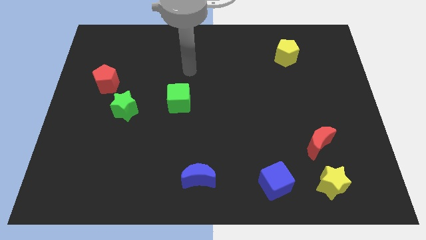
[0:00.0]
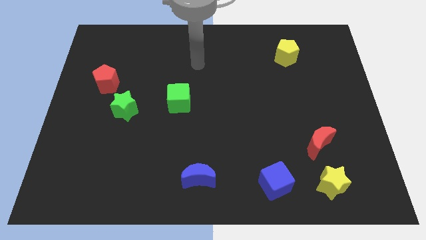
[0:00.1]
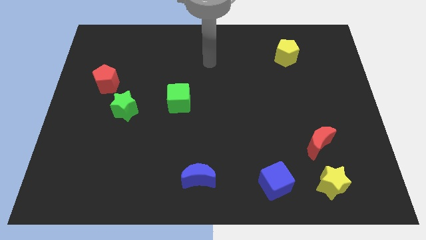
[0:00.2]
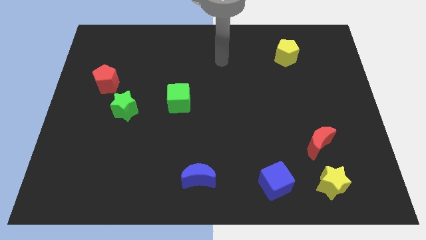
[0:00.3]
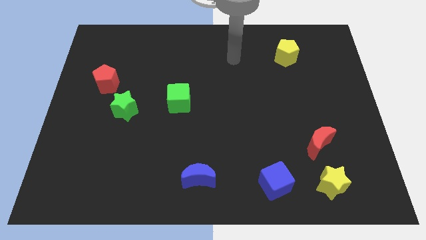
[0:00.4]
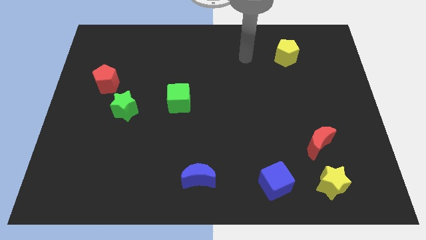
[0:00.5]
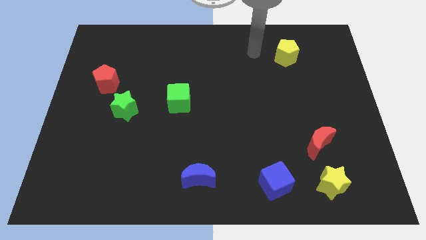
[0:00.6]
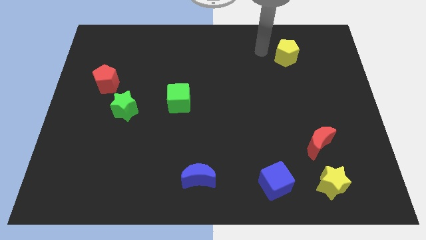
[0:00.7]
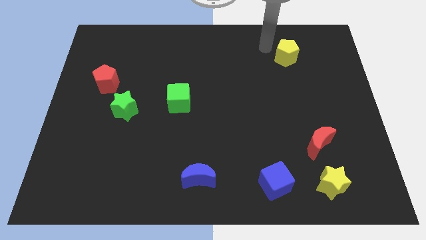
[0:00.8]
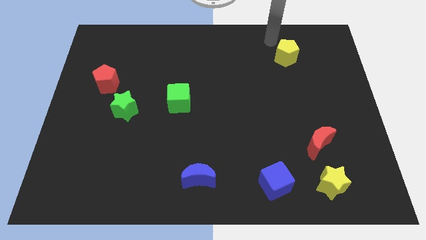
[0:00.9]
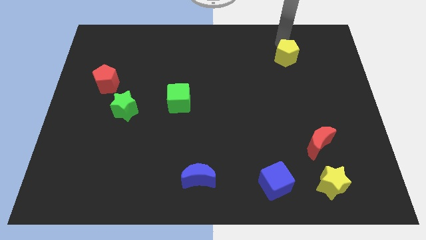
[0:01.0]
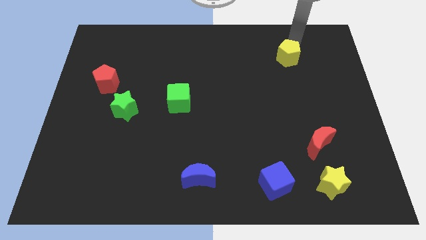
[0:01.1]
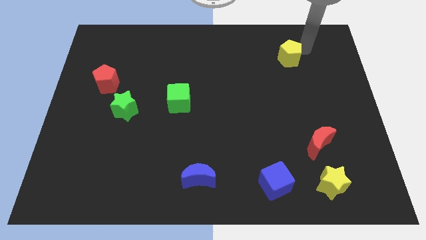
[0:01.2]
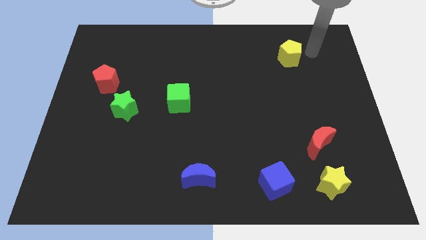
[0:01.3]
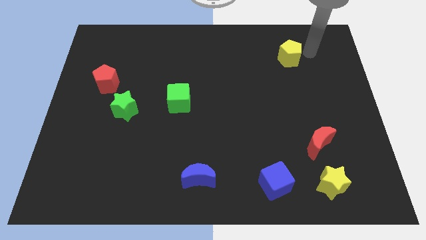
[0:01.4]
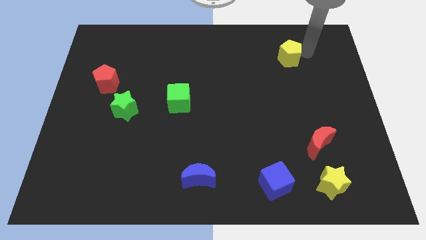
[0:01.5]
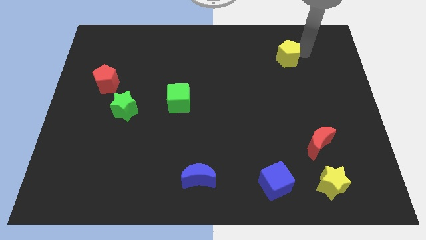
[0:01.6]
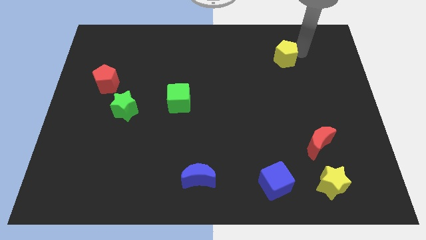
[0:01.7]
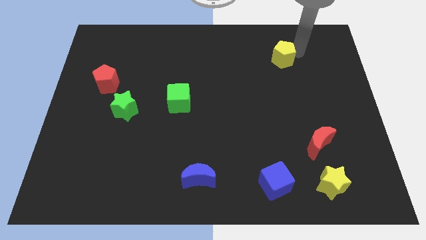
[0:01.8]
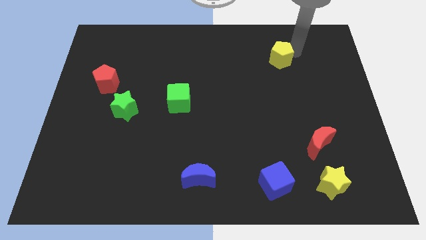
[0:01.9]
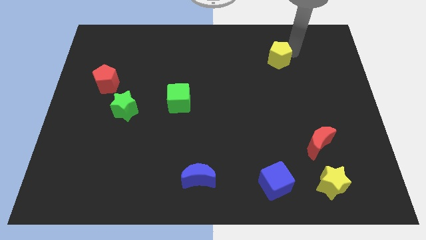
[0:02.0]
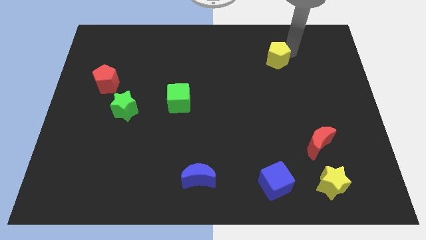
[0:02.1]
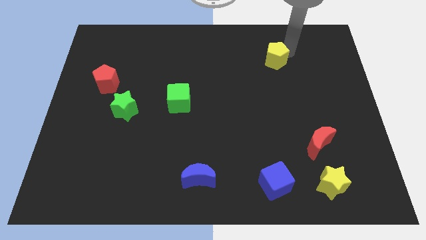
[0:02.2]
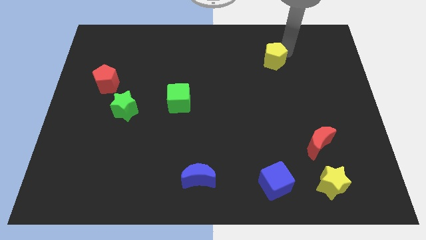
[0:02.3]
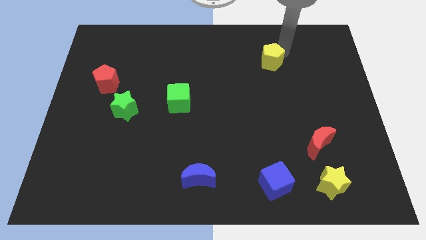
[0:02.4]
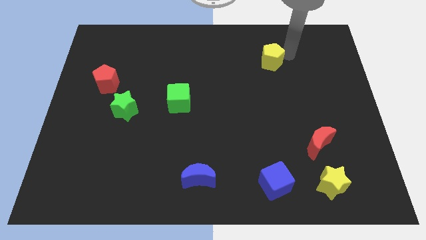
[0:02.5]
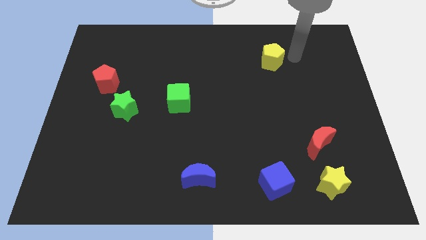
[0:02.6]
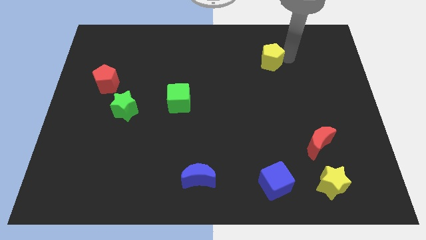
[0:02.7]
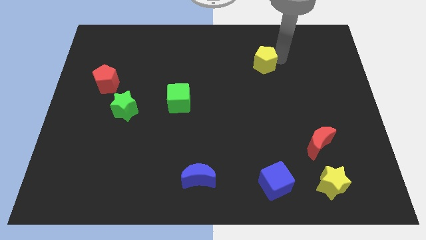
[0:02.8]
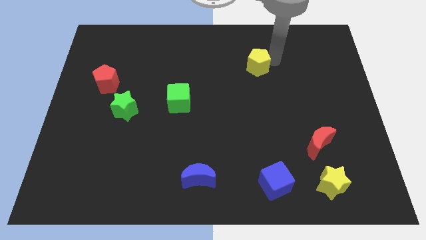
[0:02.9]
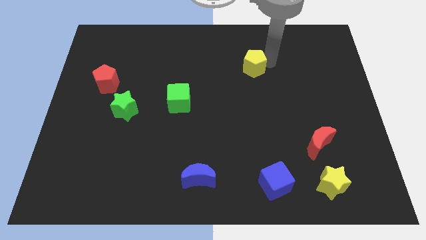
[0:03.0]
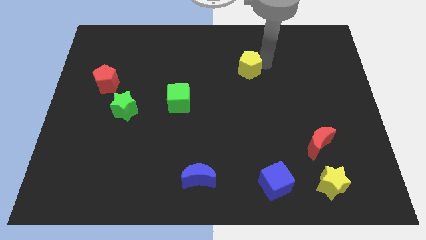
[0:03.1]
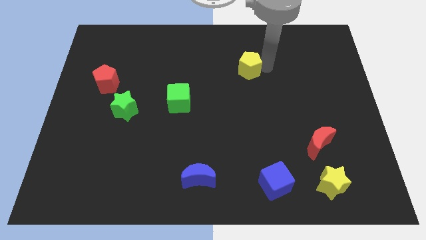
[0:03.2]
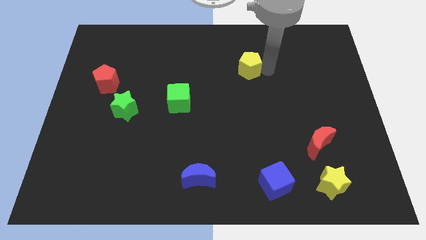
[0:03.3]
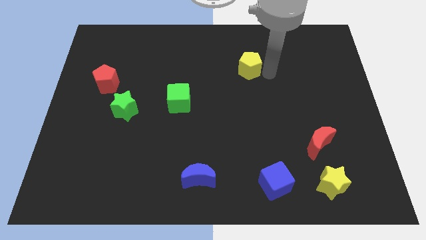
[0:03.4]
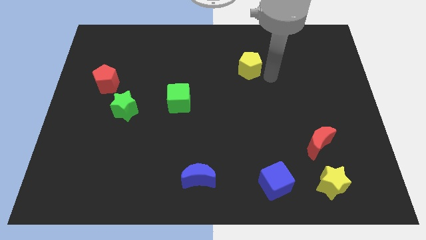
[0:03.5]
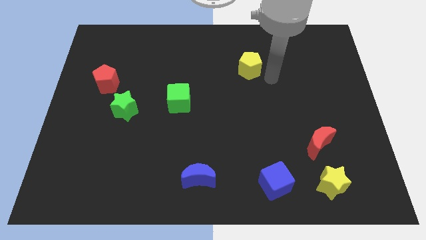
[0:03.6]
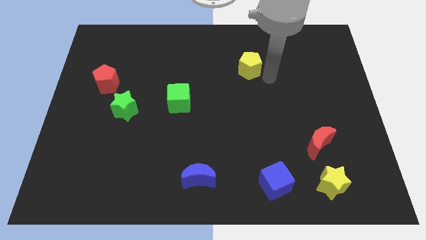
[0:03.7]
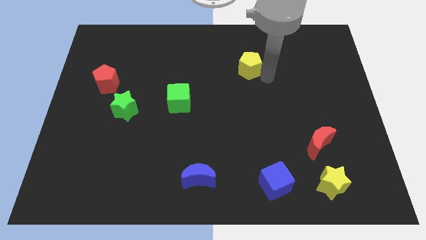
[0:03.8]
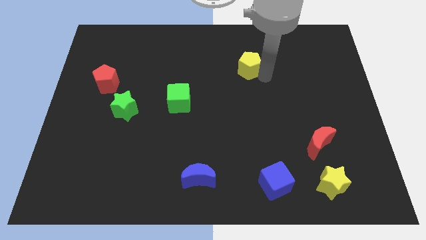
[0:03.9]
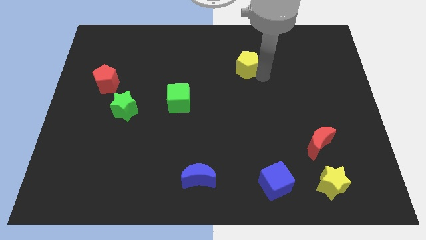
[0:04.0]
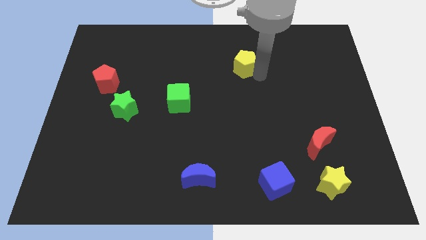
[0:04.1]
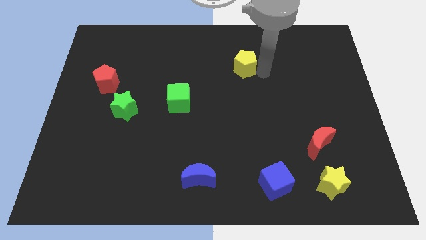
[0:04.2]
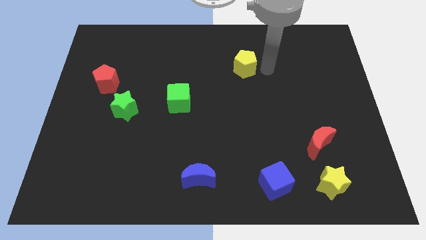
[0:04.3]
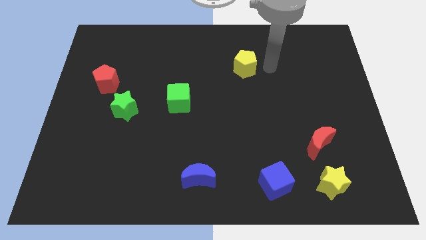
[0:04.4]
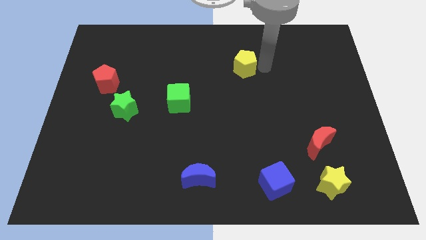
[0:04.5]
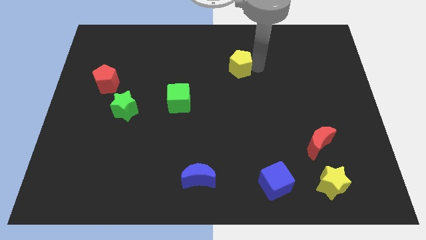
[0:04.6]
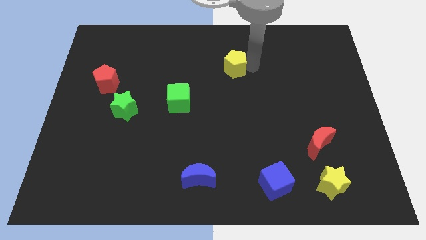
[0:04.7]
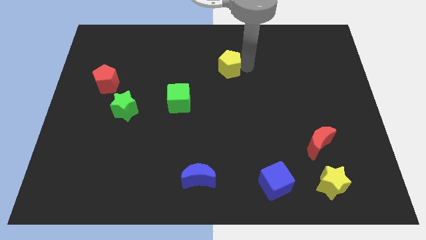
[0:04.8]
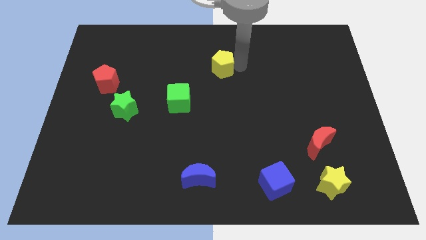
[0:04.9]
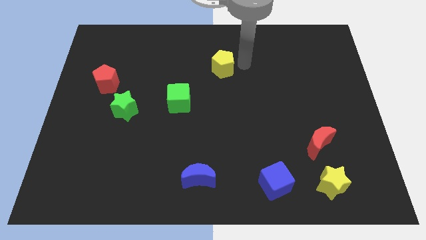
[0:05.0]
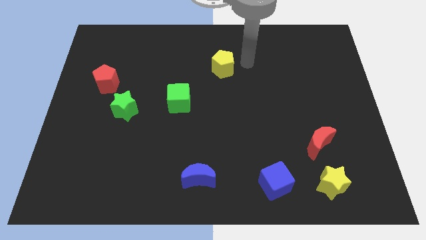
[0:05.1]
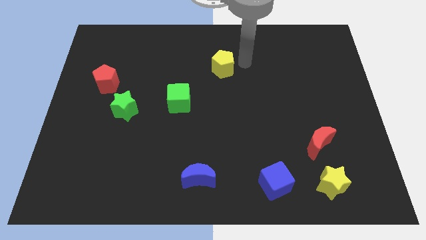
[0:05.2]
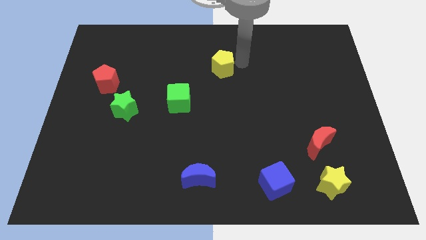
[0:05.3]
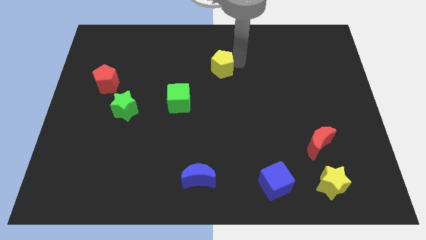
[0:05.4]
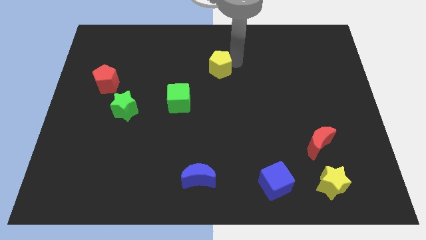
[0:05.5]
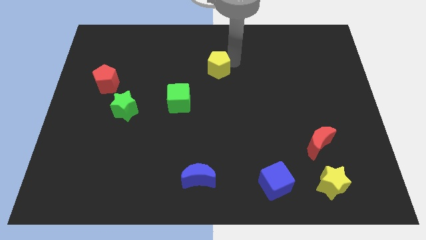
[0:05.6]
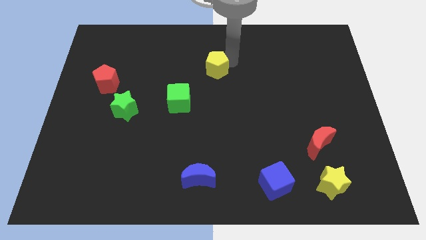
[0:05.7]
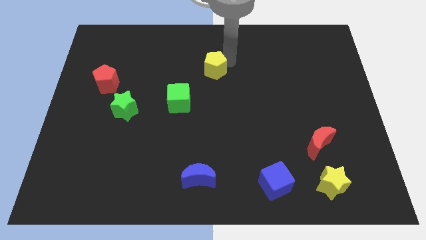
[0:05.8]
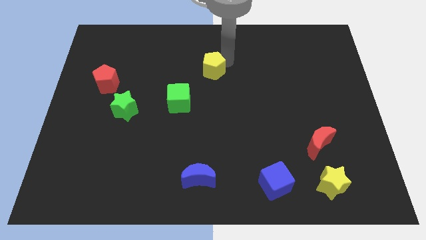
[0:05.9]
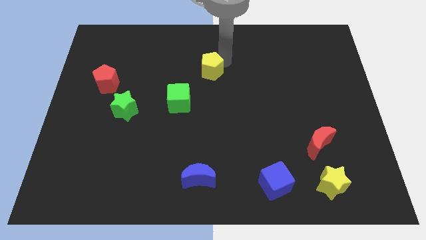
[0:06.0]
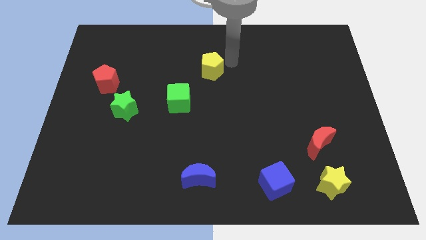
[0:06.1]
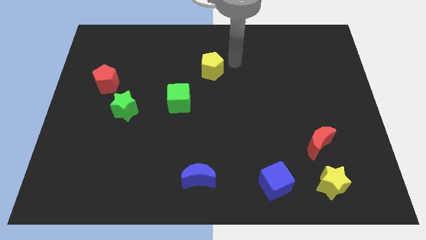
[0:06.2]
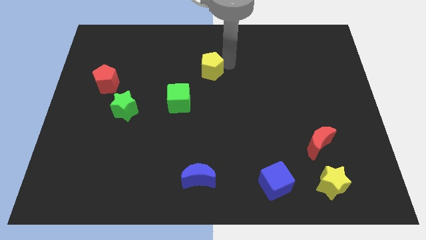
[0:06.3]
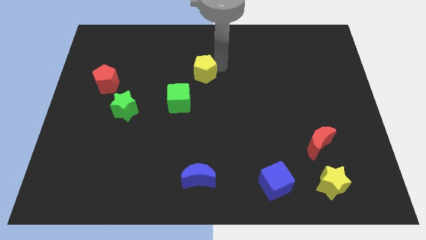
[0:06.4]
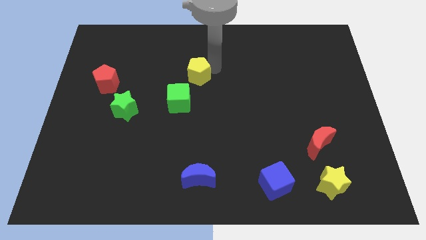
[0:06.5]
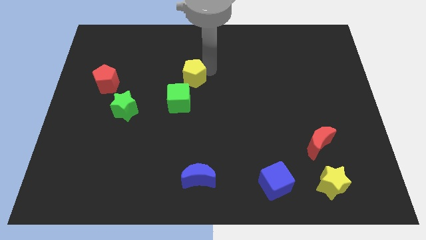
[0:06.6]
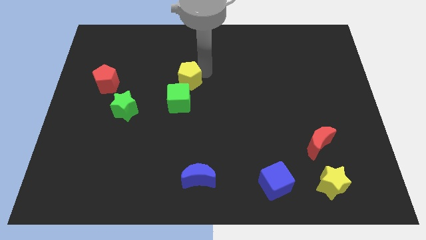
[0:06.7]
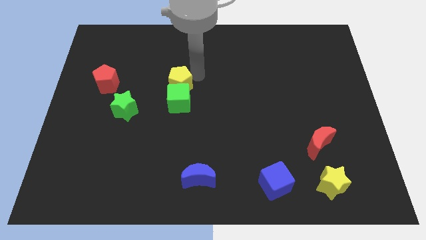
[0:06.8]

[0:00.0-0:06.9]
put the yellow pentagon diagonally up and to the left of the green cube

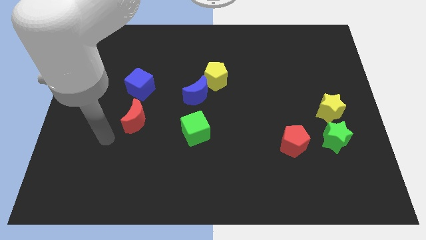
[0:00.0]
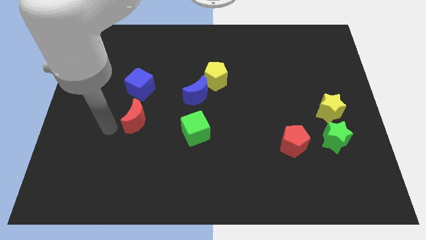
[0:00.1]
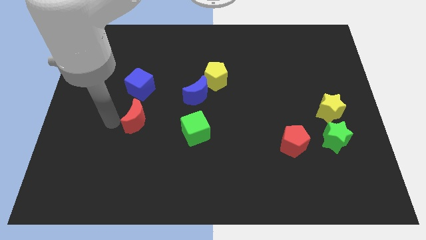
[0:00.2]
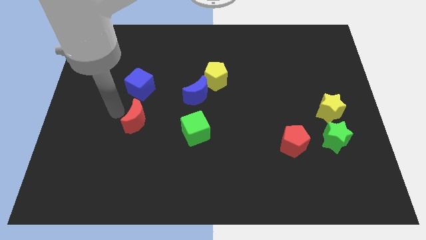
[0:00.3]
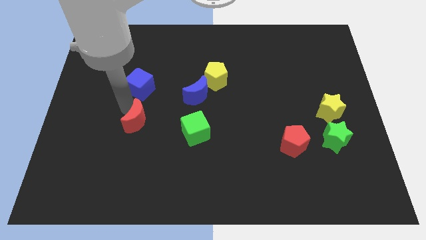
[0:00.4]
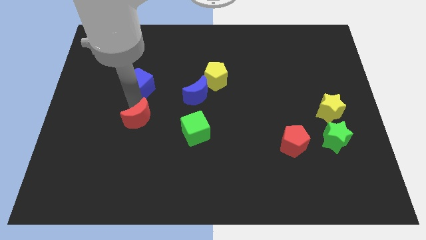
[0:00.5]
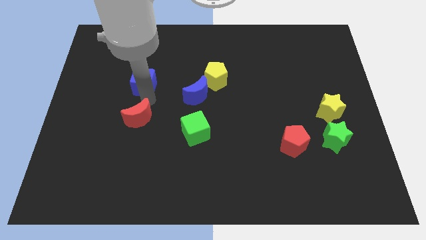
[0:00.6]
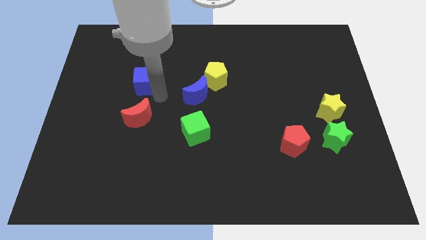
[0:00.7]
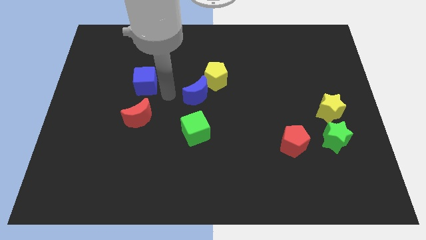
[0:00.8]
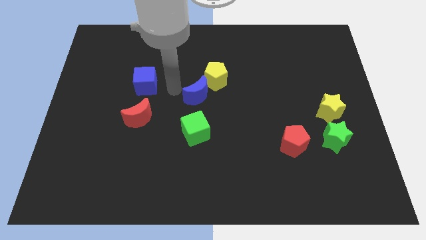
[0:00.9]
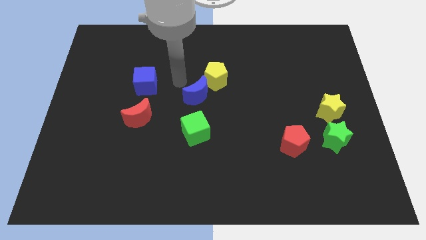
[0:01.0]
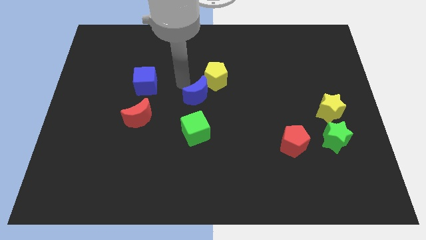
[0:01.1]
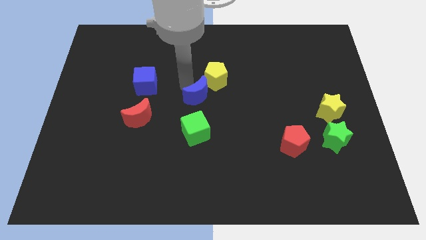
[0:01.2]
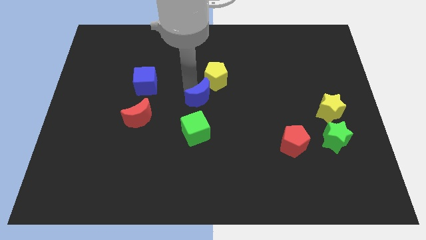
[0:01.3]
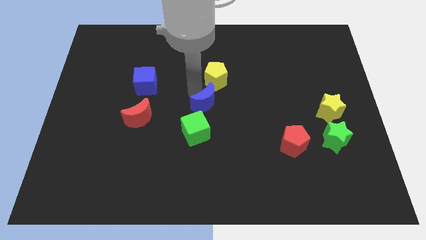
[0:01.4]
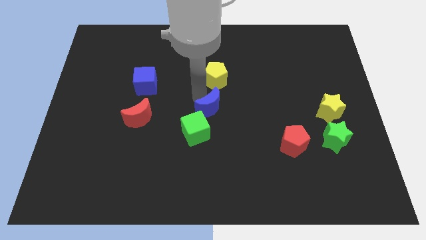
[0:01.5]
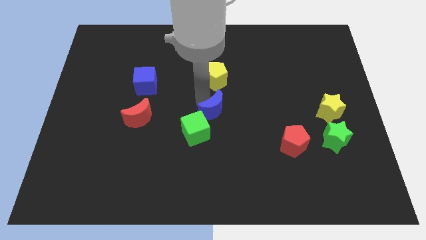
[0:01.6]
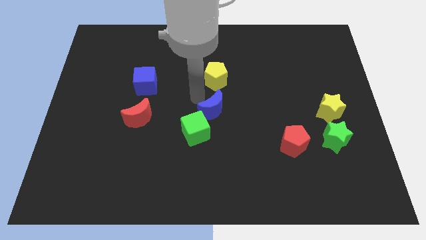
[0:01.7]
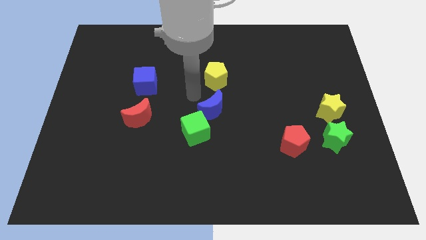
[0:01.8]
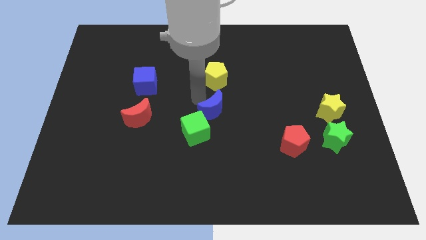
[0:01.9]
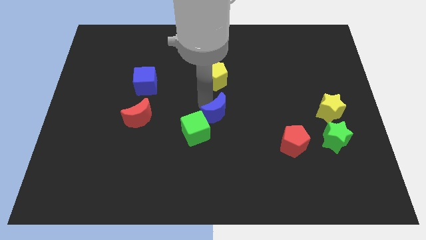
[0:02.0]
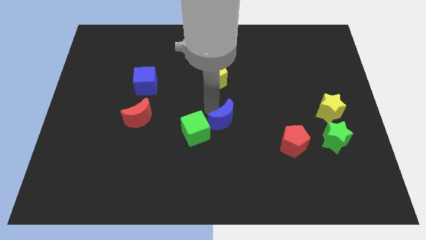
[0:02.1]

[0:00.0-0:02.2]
slide the blue moon to the right side of the green cube
